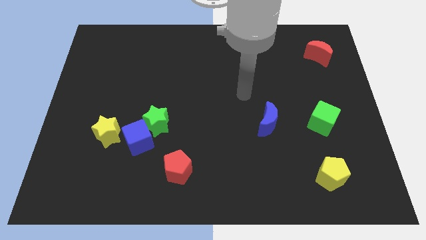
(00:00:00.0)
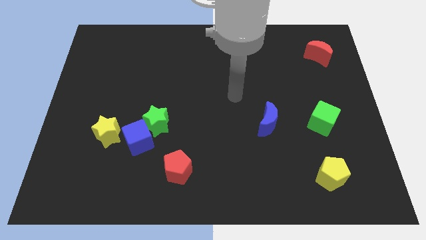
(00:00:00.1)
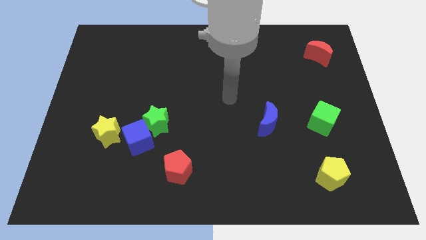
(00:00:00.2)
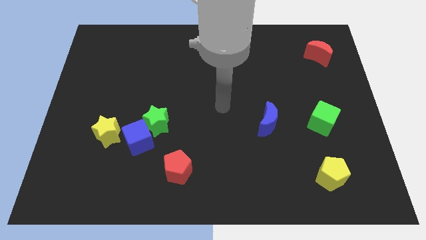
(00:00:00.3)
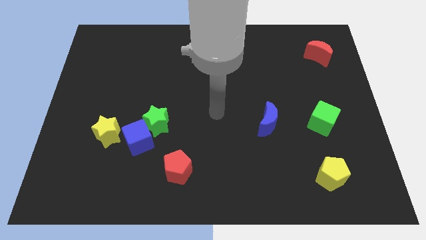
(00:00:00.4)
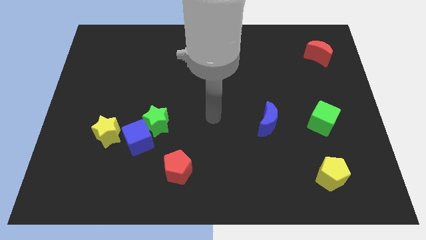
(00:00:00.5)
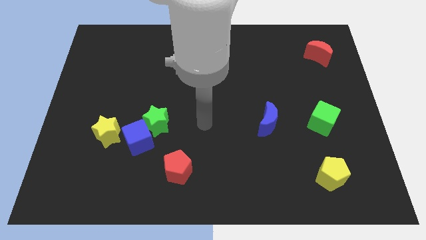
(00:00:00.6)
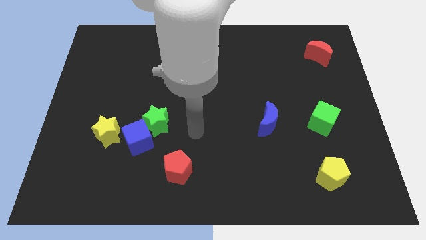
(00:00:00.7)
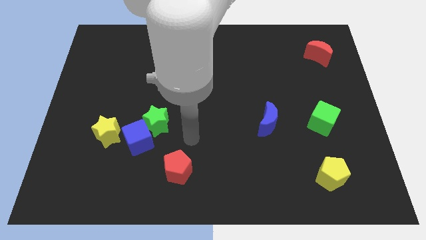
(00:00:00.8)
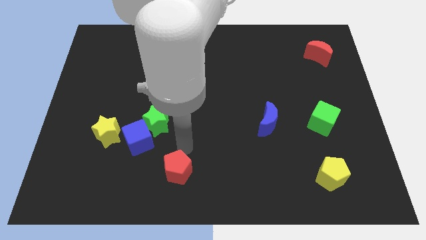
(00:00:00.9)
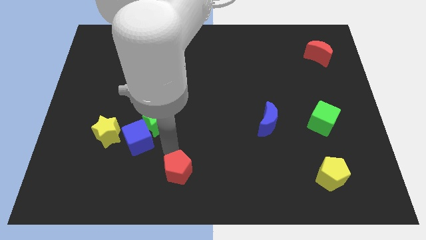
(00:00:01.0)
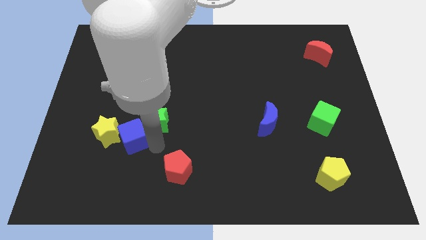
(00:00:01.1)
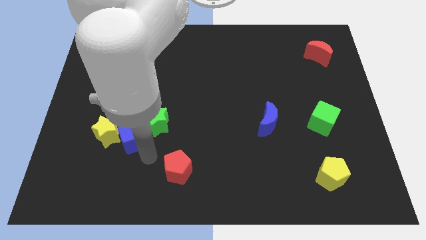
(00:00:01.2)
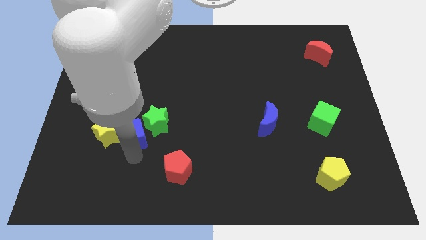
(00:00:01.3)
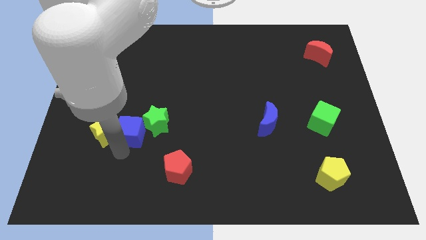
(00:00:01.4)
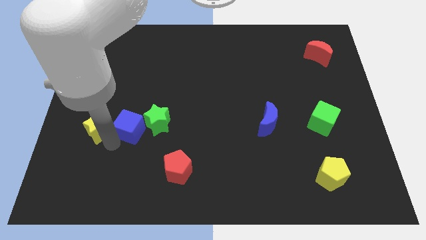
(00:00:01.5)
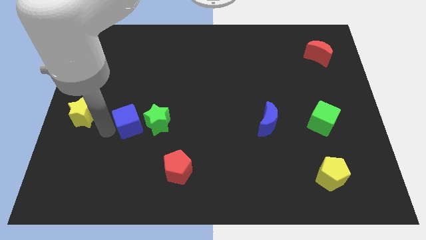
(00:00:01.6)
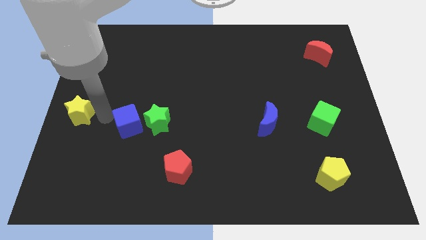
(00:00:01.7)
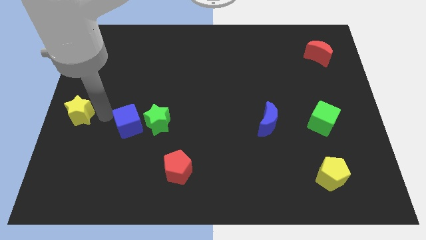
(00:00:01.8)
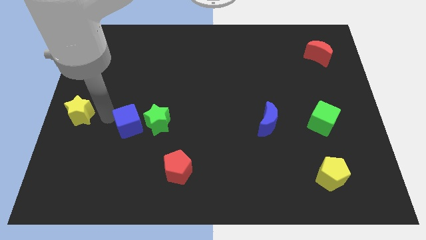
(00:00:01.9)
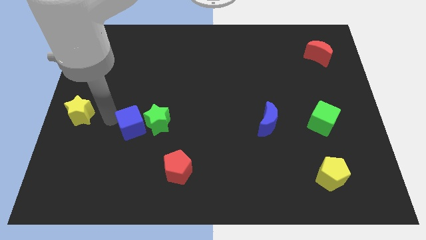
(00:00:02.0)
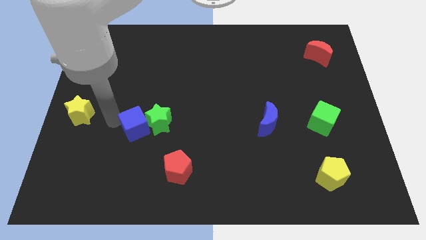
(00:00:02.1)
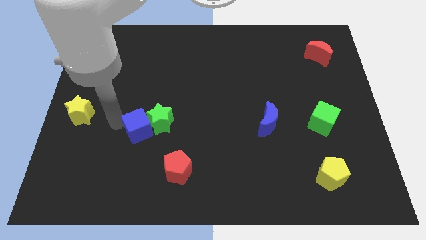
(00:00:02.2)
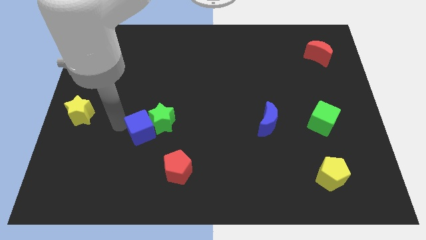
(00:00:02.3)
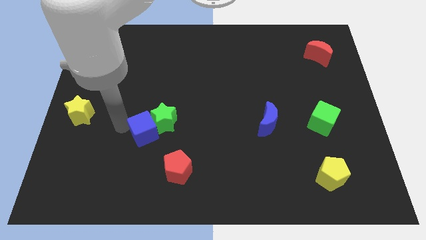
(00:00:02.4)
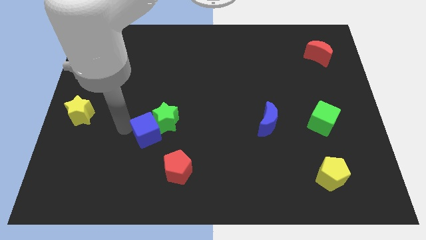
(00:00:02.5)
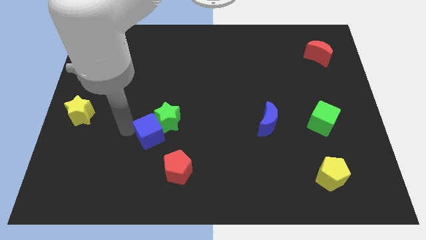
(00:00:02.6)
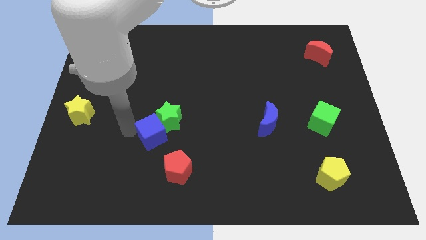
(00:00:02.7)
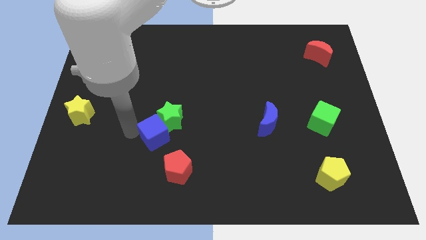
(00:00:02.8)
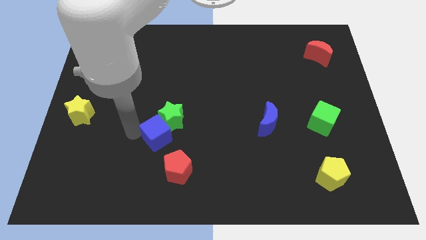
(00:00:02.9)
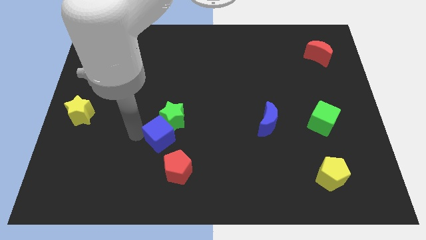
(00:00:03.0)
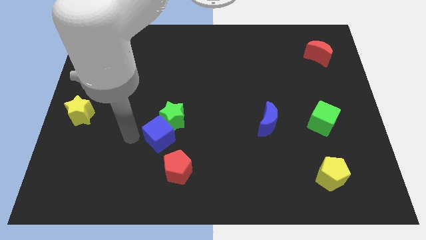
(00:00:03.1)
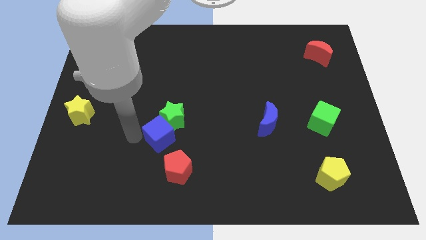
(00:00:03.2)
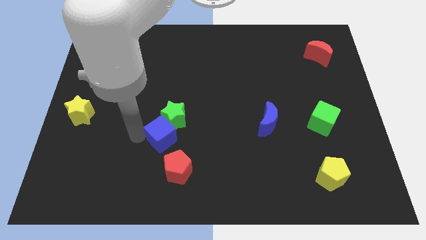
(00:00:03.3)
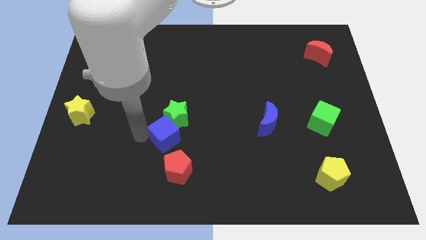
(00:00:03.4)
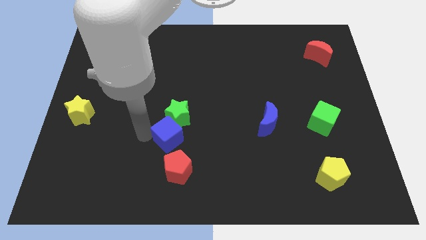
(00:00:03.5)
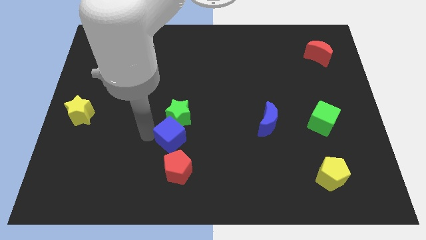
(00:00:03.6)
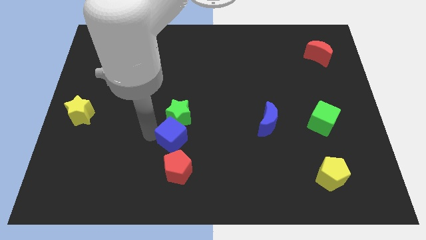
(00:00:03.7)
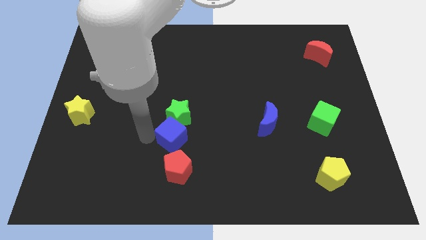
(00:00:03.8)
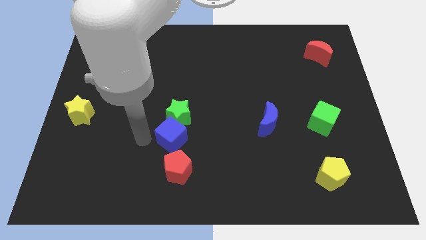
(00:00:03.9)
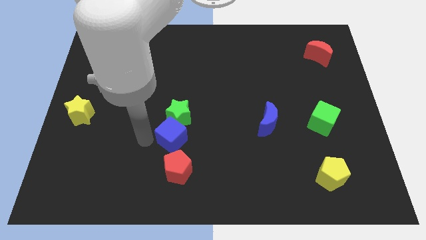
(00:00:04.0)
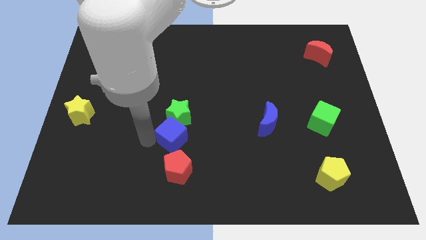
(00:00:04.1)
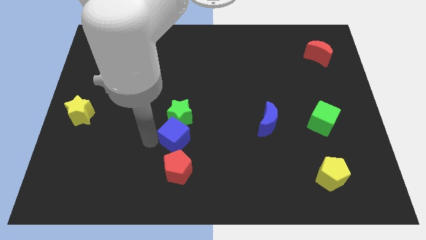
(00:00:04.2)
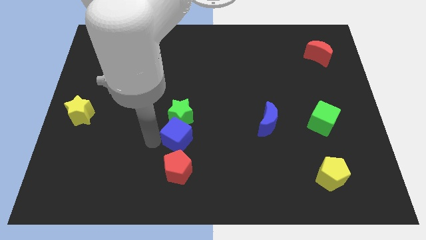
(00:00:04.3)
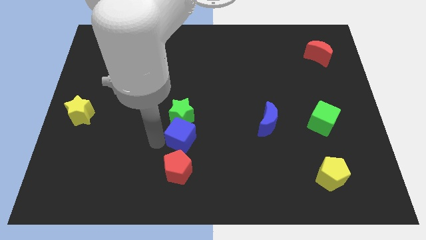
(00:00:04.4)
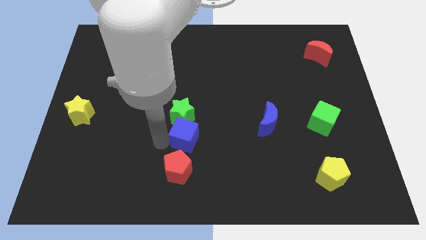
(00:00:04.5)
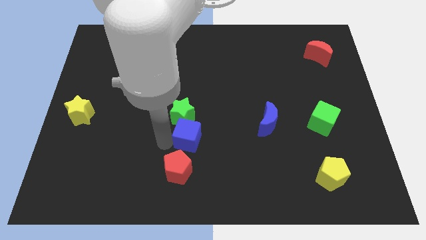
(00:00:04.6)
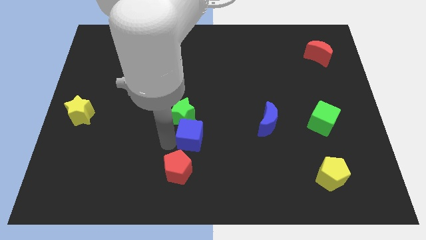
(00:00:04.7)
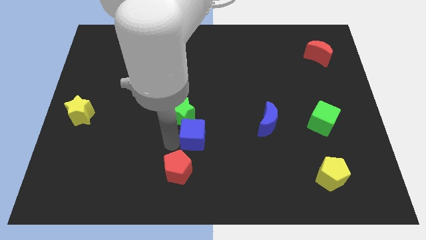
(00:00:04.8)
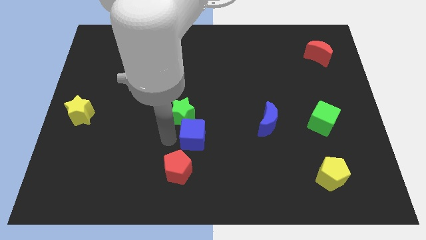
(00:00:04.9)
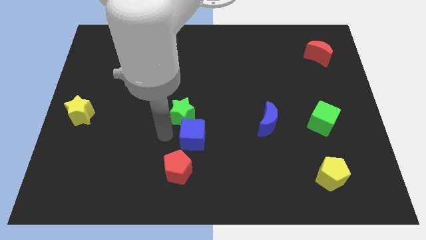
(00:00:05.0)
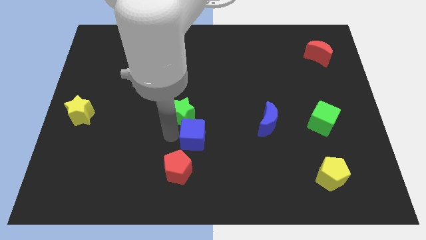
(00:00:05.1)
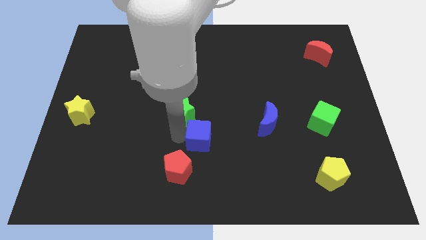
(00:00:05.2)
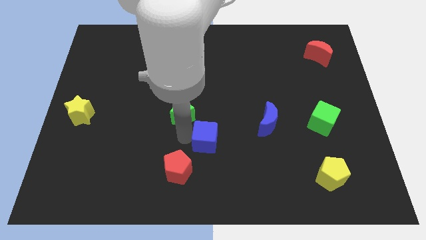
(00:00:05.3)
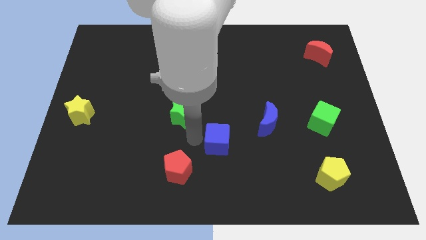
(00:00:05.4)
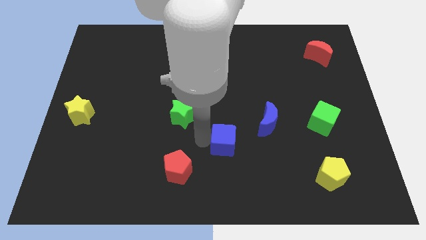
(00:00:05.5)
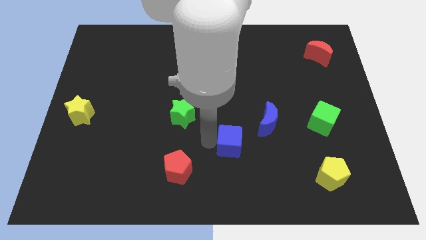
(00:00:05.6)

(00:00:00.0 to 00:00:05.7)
slide the blue cube to the right

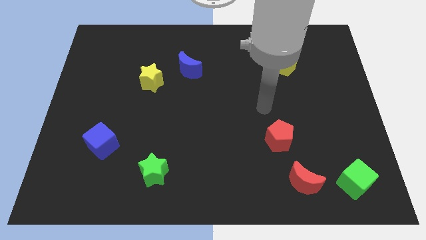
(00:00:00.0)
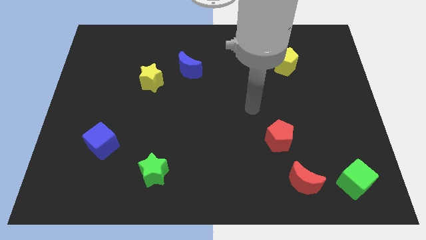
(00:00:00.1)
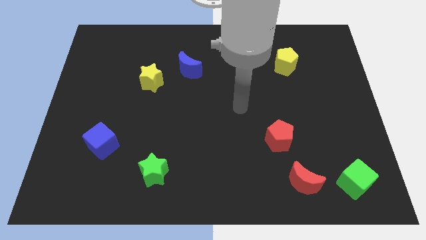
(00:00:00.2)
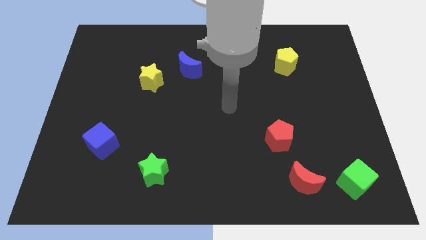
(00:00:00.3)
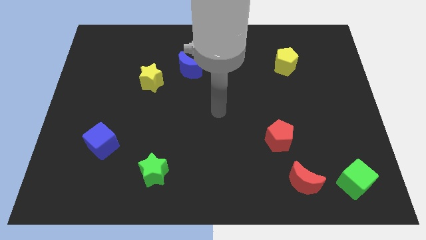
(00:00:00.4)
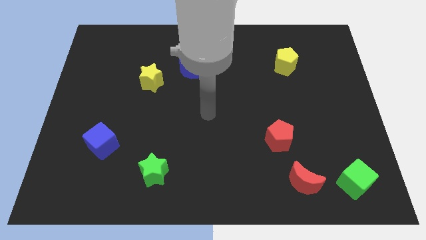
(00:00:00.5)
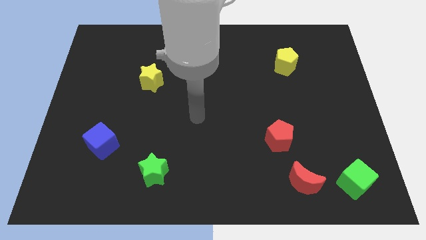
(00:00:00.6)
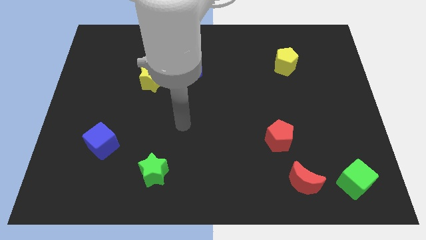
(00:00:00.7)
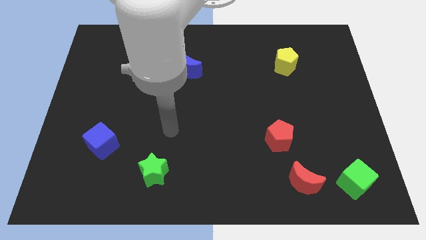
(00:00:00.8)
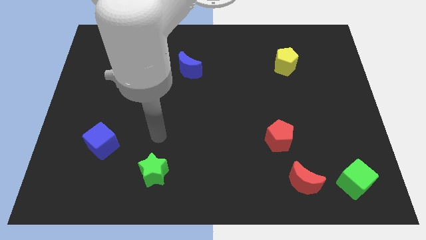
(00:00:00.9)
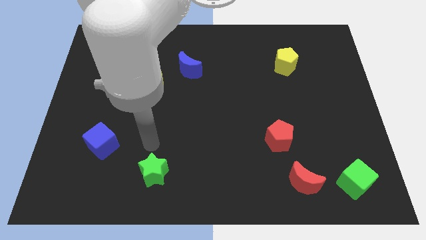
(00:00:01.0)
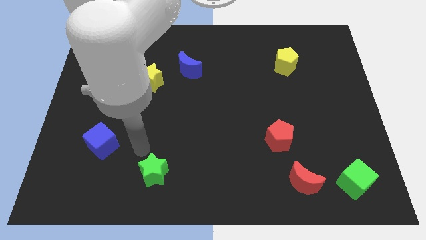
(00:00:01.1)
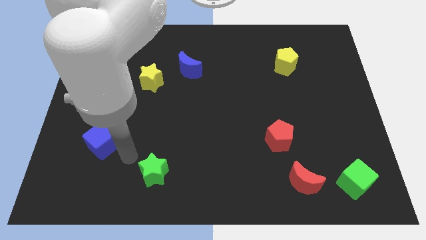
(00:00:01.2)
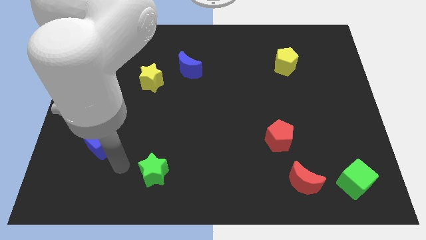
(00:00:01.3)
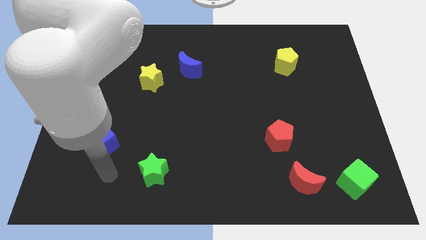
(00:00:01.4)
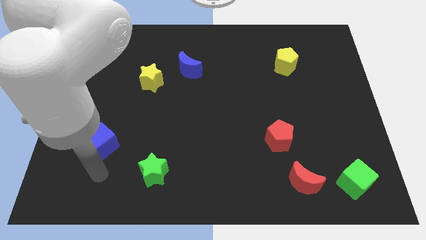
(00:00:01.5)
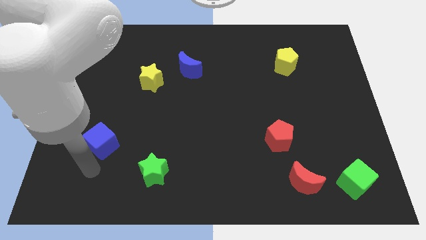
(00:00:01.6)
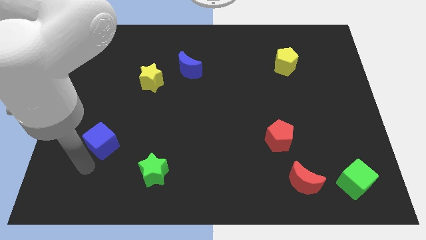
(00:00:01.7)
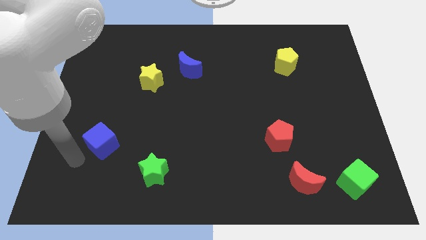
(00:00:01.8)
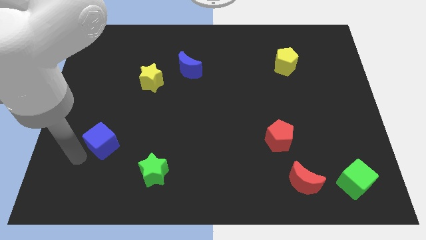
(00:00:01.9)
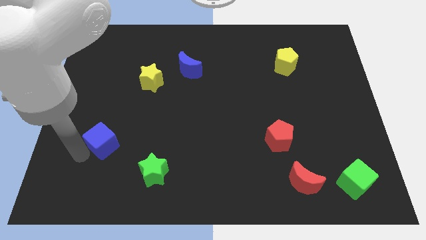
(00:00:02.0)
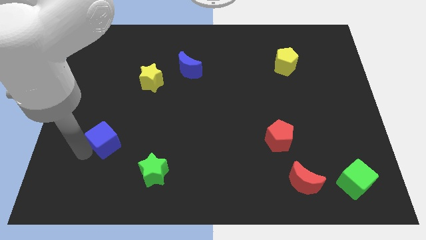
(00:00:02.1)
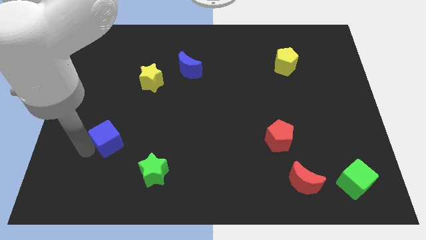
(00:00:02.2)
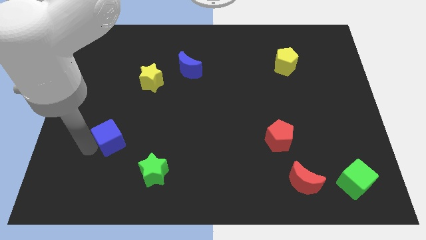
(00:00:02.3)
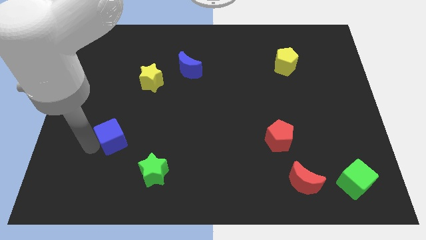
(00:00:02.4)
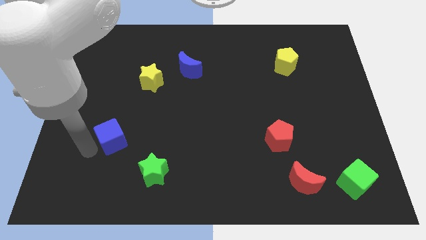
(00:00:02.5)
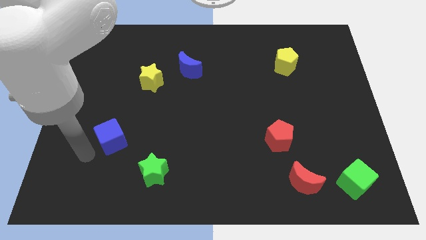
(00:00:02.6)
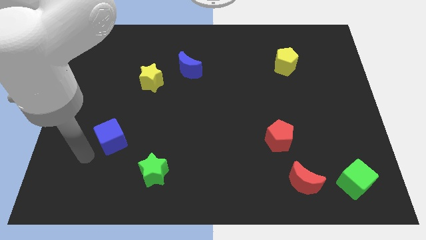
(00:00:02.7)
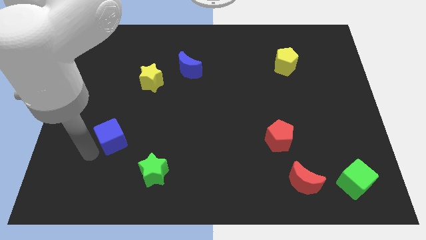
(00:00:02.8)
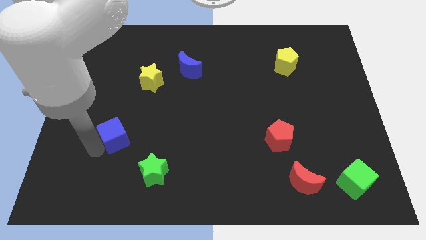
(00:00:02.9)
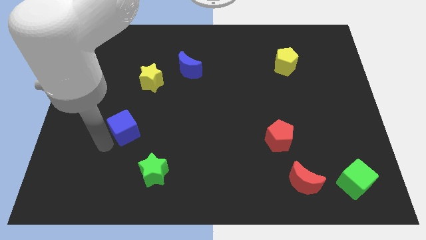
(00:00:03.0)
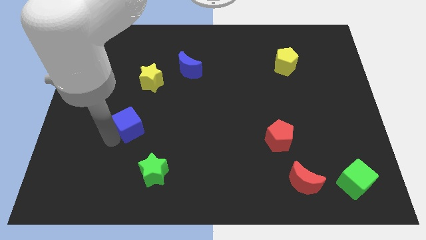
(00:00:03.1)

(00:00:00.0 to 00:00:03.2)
slightly push the blue cube up and to the right diagonally
